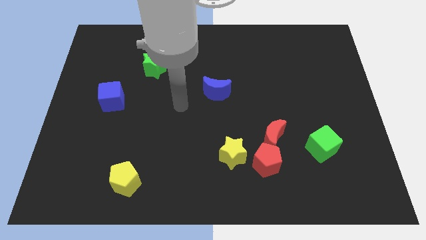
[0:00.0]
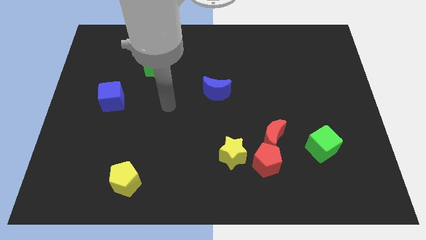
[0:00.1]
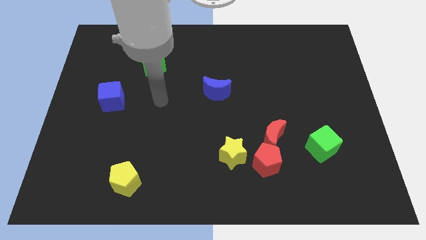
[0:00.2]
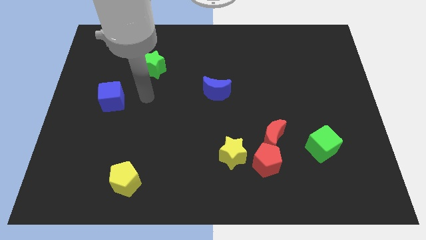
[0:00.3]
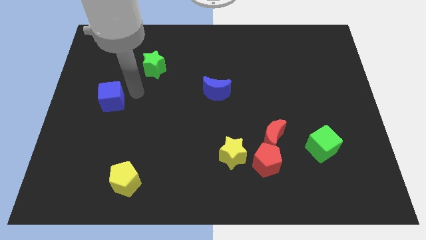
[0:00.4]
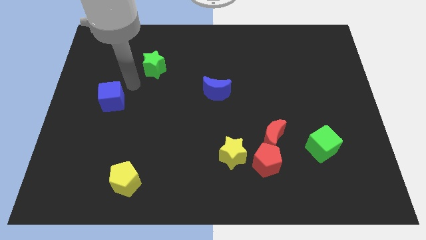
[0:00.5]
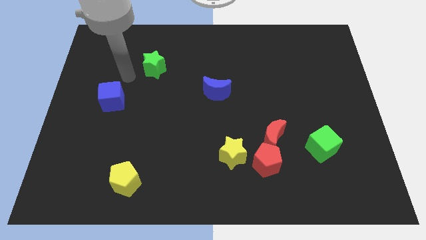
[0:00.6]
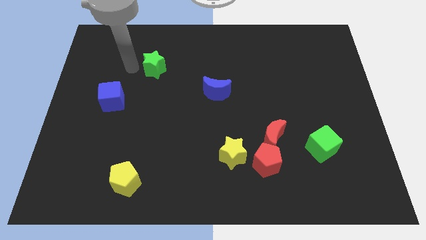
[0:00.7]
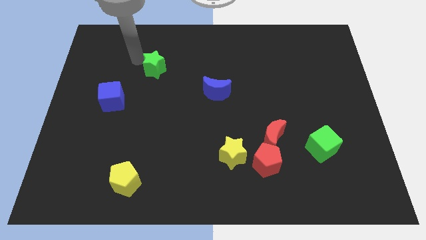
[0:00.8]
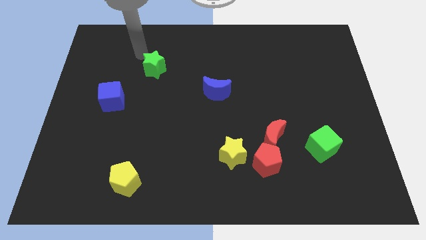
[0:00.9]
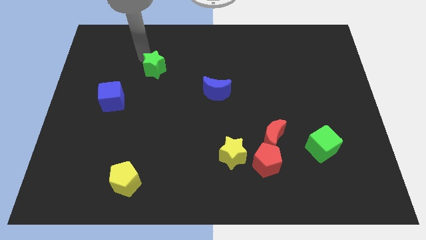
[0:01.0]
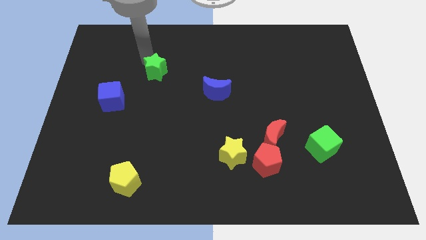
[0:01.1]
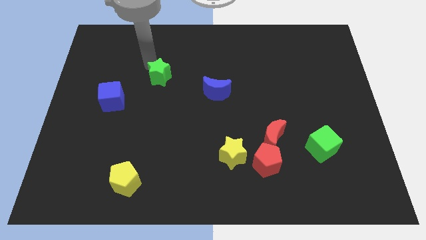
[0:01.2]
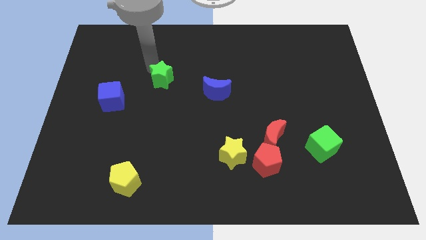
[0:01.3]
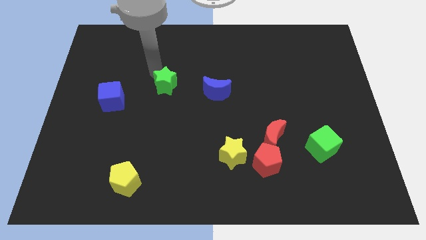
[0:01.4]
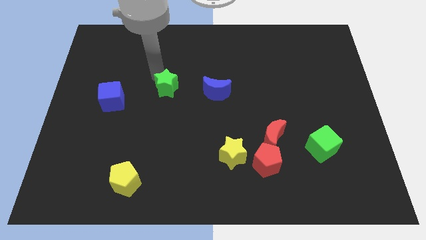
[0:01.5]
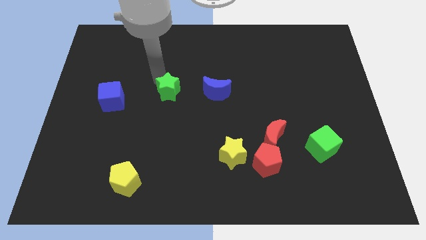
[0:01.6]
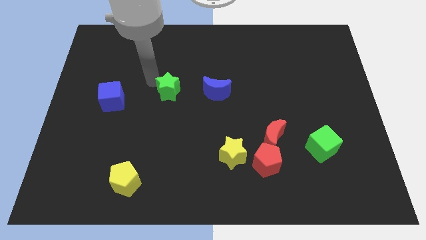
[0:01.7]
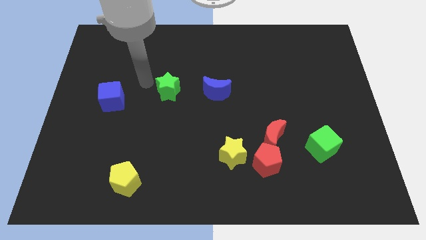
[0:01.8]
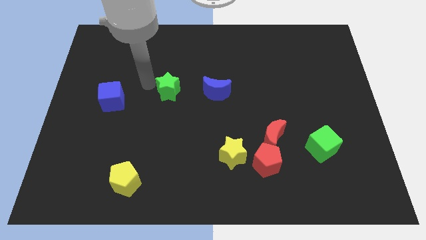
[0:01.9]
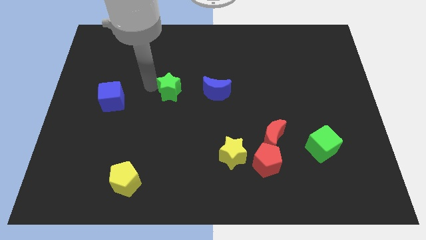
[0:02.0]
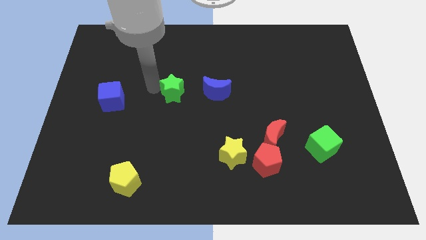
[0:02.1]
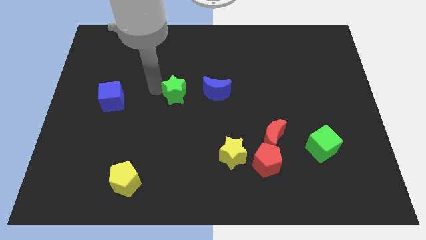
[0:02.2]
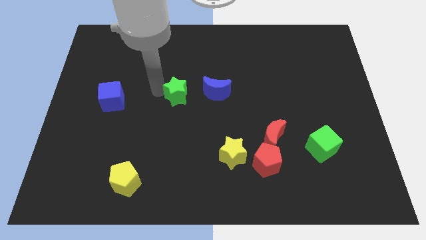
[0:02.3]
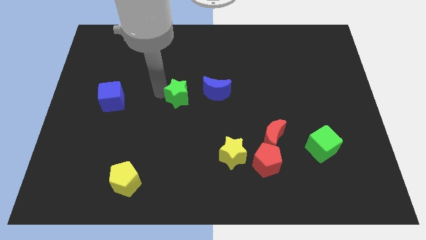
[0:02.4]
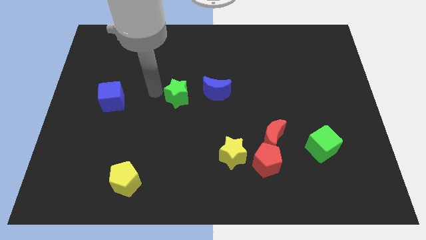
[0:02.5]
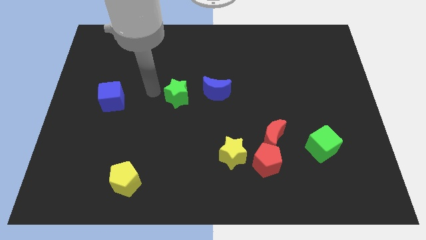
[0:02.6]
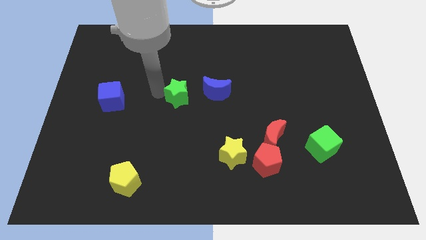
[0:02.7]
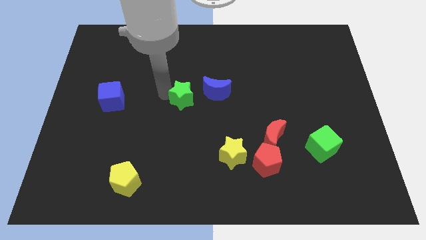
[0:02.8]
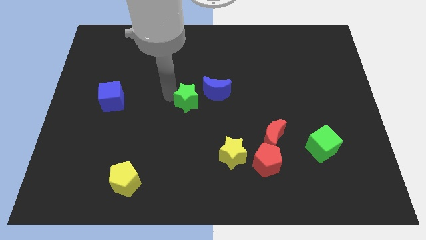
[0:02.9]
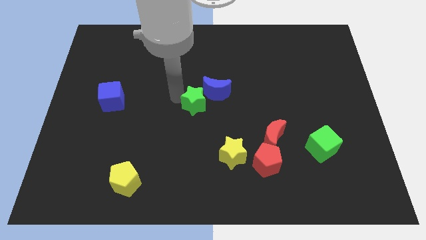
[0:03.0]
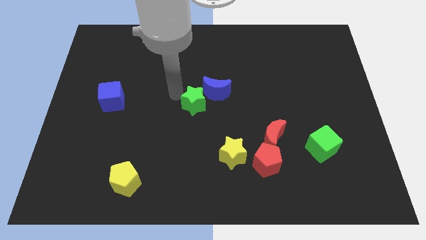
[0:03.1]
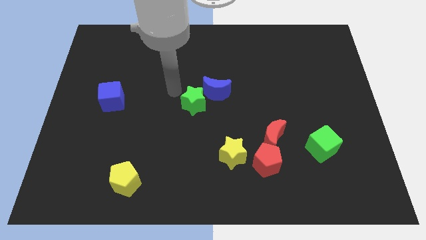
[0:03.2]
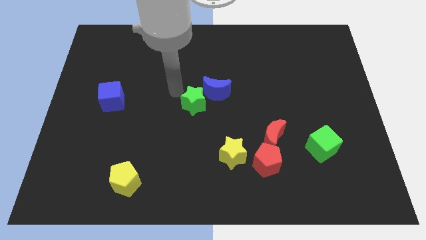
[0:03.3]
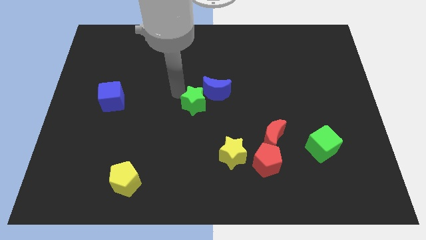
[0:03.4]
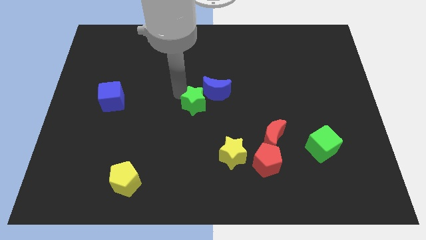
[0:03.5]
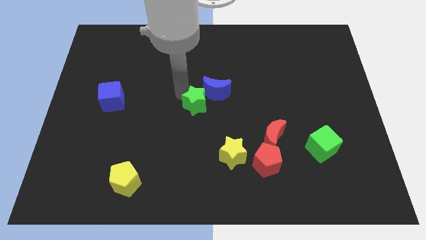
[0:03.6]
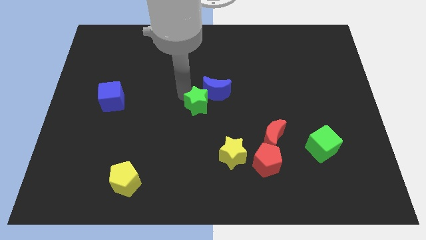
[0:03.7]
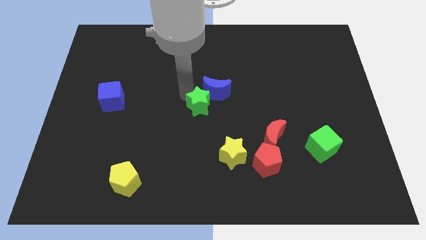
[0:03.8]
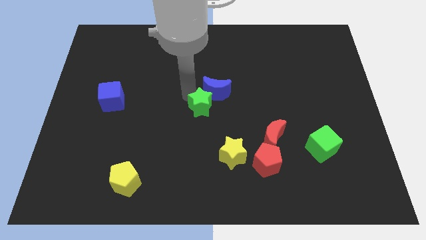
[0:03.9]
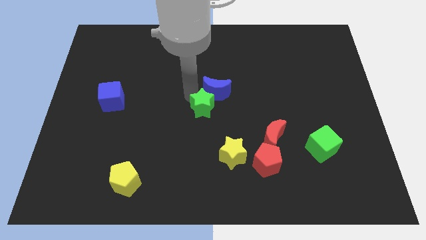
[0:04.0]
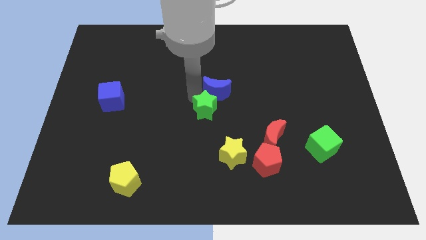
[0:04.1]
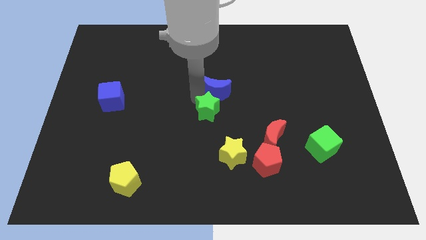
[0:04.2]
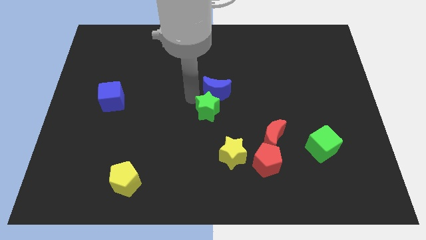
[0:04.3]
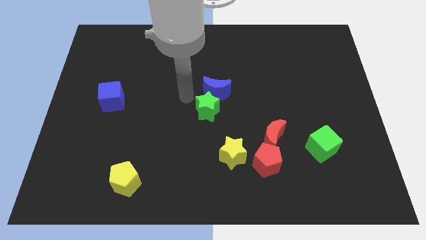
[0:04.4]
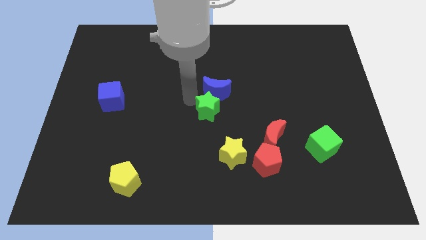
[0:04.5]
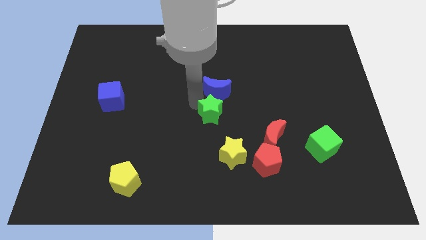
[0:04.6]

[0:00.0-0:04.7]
slide the green star down and right

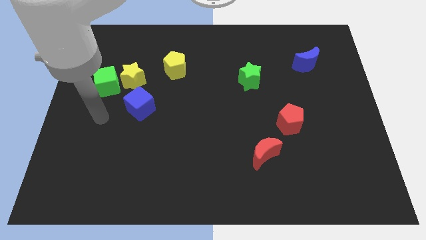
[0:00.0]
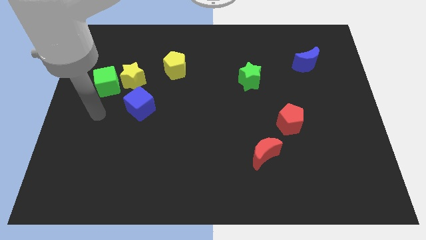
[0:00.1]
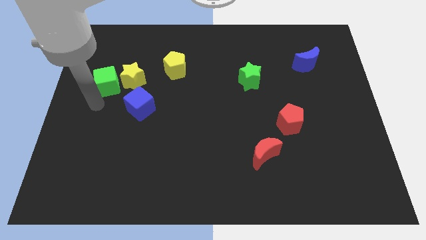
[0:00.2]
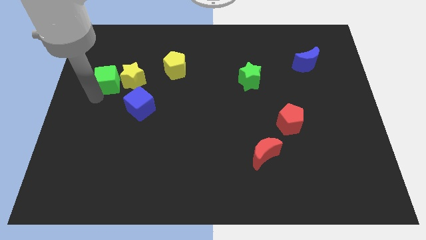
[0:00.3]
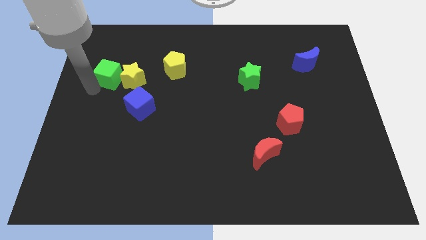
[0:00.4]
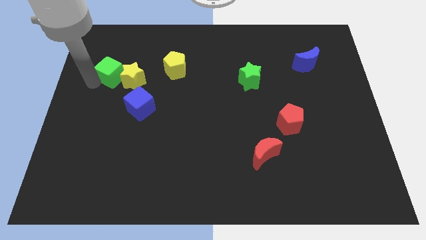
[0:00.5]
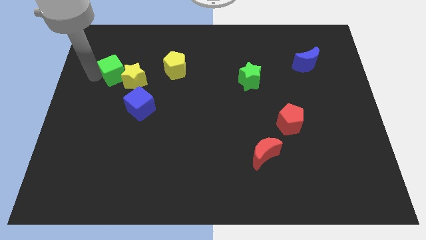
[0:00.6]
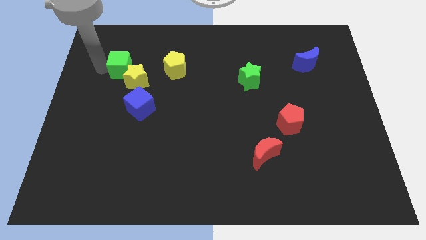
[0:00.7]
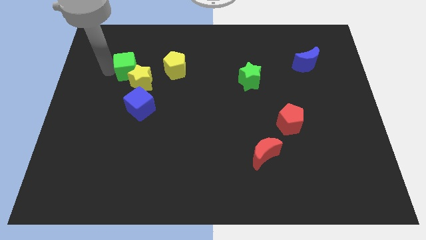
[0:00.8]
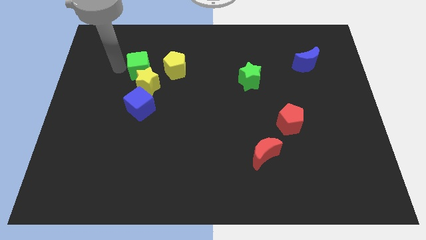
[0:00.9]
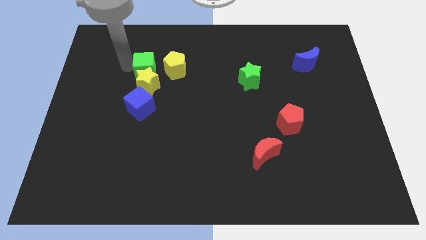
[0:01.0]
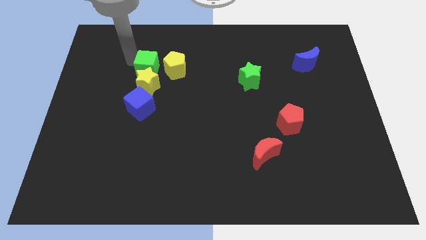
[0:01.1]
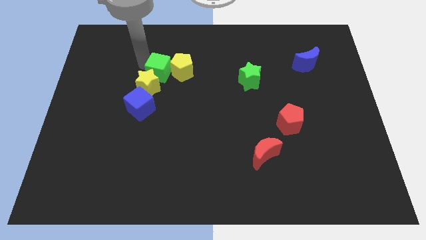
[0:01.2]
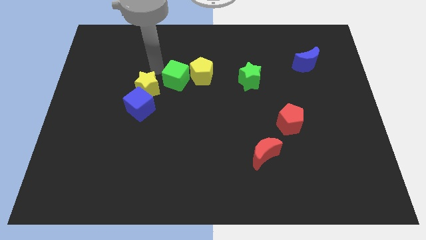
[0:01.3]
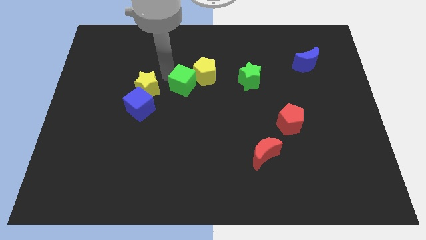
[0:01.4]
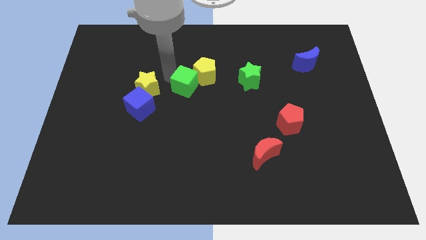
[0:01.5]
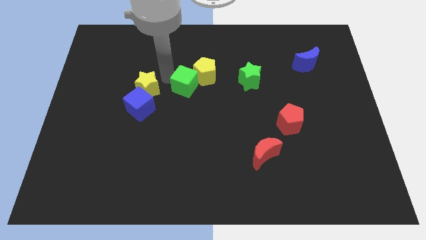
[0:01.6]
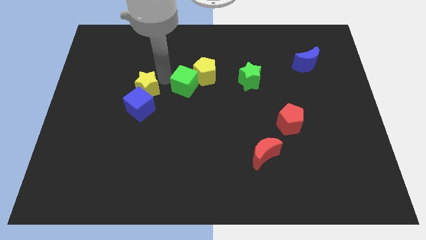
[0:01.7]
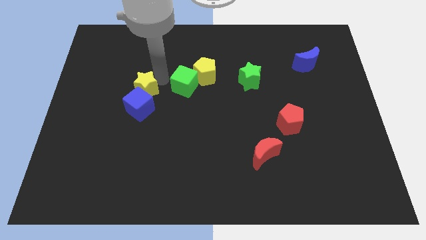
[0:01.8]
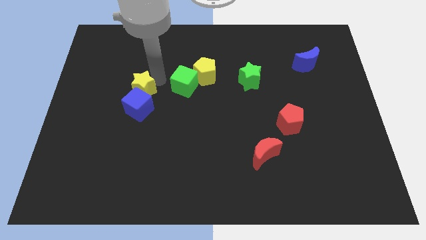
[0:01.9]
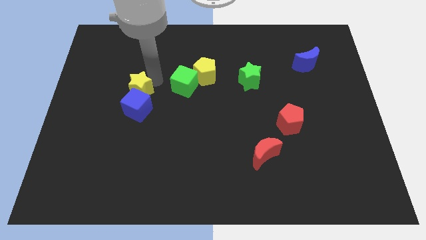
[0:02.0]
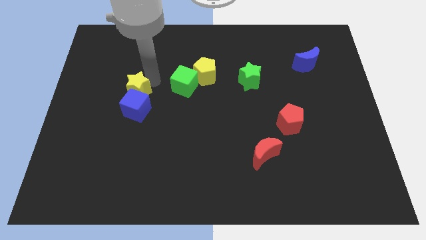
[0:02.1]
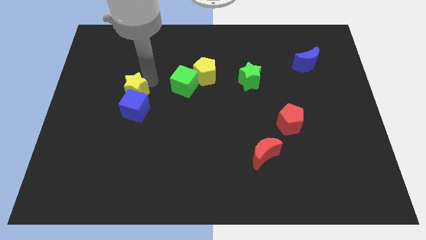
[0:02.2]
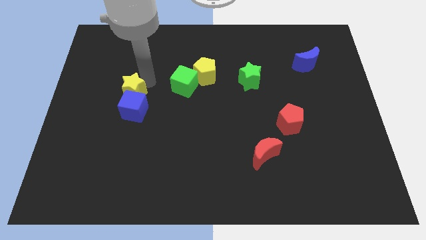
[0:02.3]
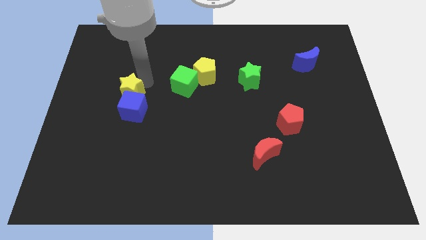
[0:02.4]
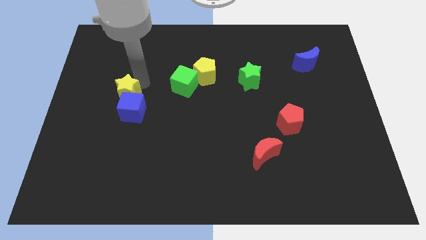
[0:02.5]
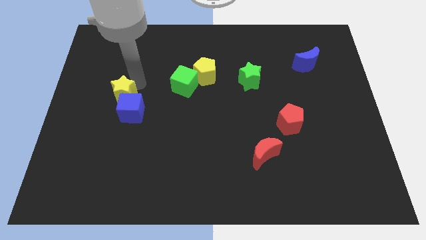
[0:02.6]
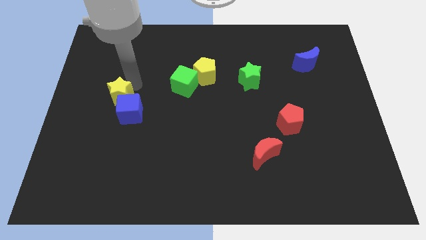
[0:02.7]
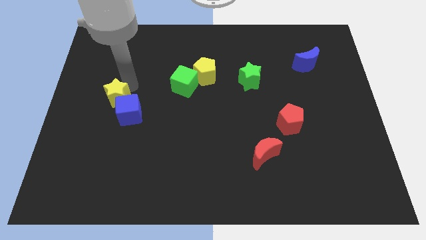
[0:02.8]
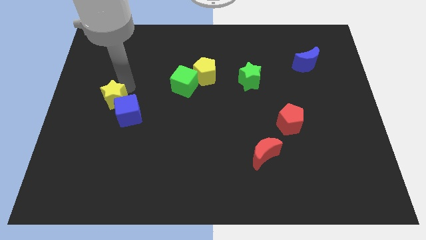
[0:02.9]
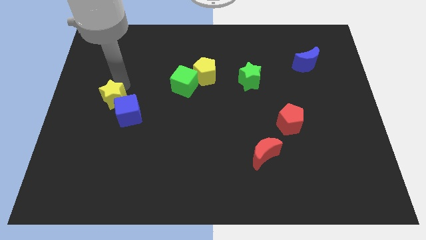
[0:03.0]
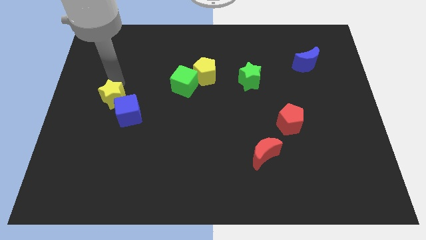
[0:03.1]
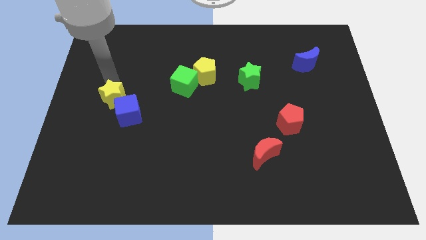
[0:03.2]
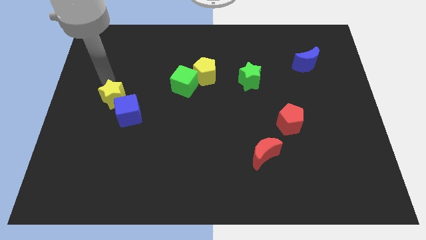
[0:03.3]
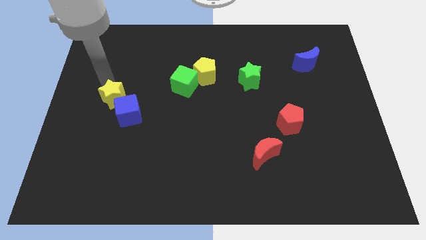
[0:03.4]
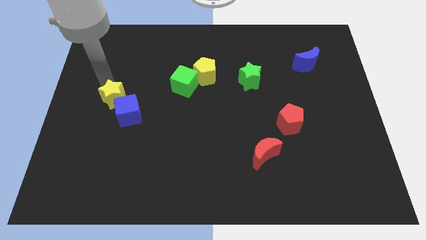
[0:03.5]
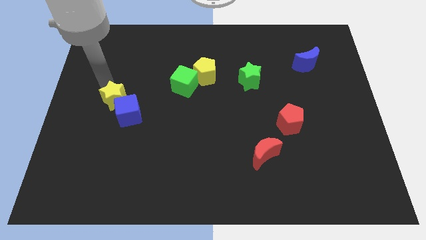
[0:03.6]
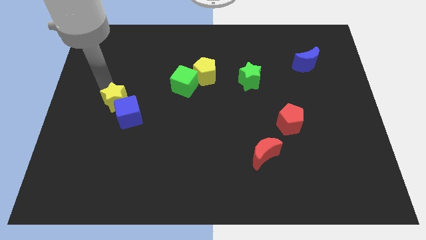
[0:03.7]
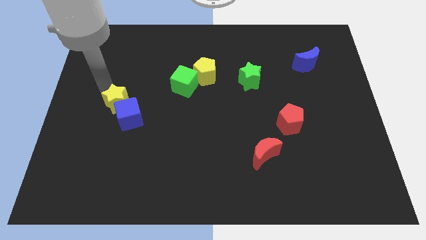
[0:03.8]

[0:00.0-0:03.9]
push the yellow star somewhat down

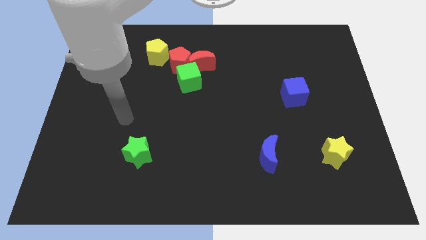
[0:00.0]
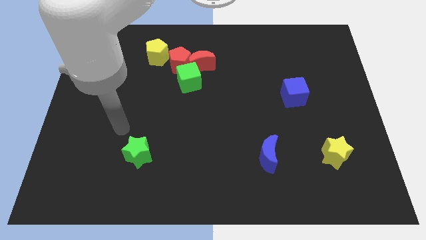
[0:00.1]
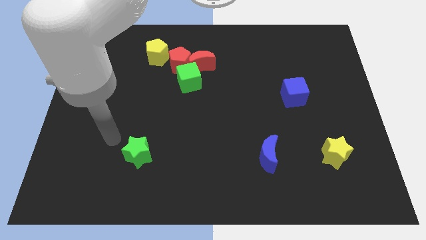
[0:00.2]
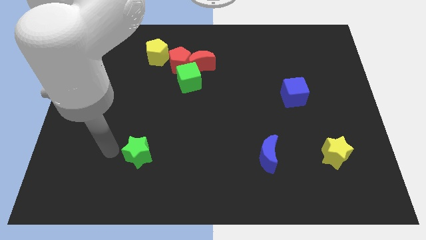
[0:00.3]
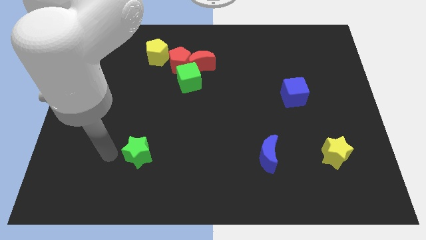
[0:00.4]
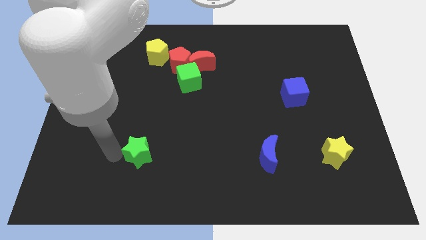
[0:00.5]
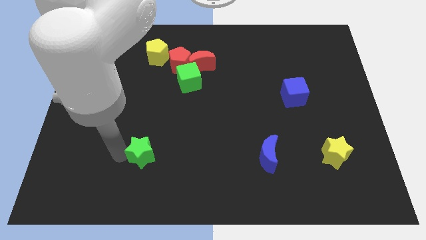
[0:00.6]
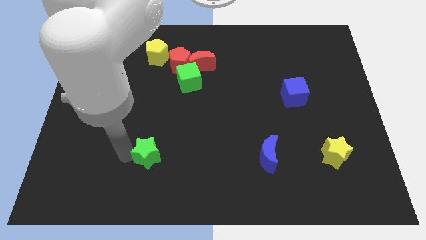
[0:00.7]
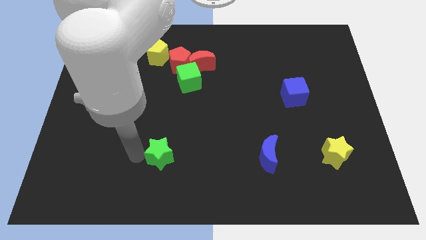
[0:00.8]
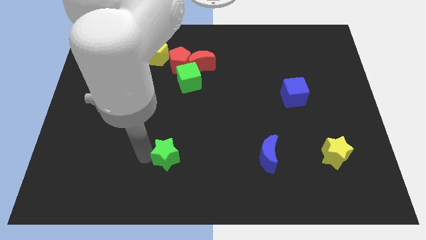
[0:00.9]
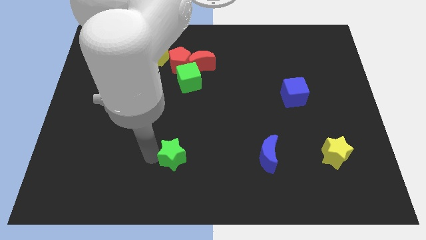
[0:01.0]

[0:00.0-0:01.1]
move the green star a little right
